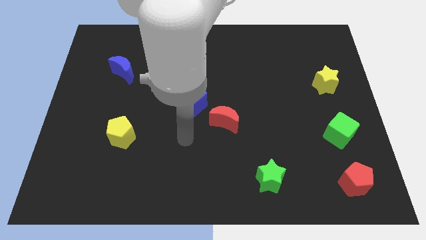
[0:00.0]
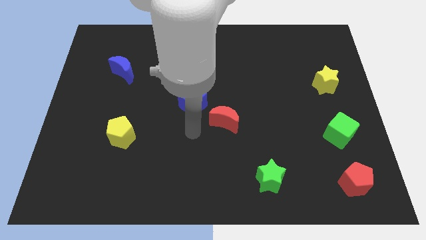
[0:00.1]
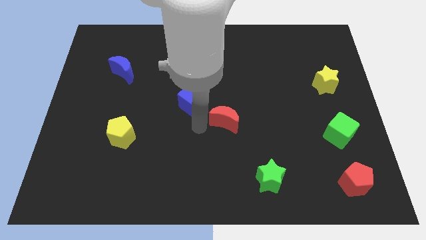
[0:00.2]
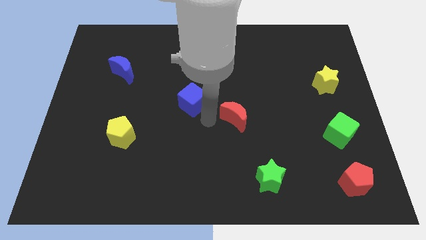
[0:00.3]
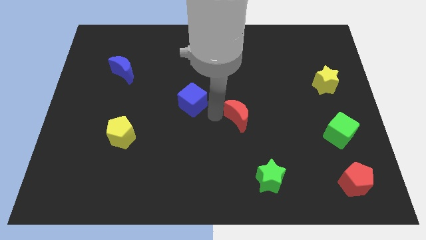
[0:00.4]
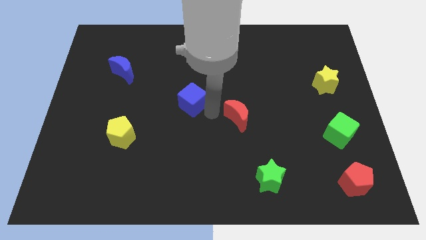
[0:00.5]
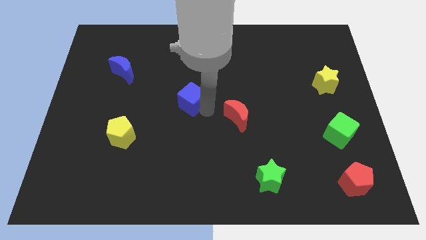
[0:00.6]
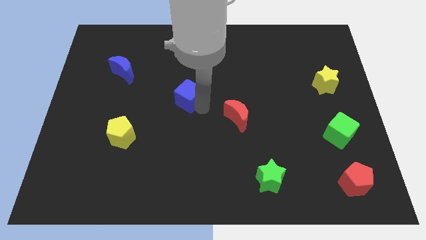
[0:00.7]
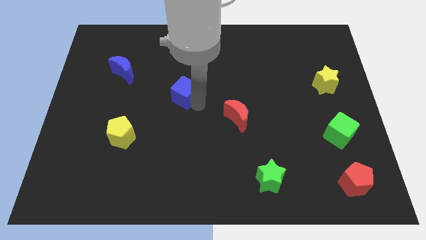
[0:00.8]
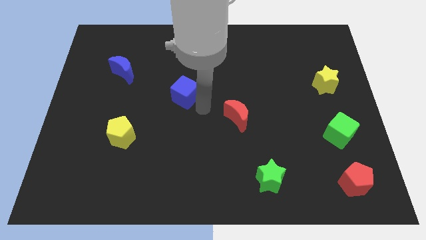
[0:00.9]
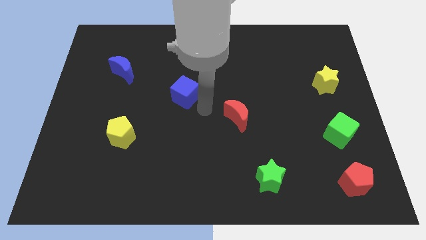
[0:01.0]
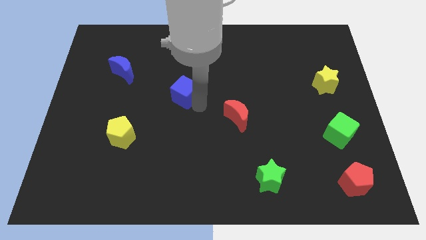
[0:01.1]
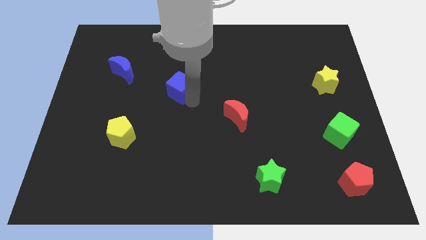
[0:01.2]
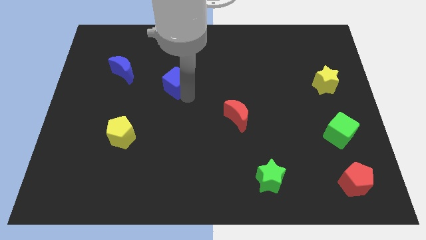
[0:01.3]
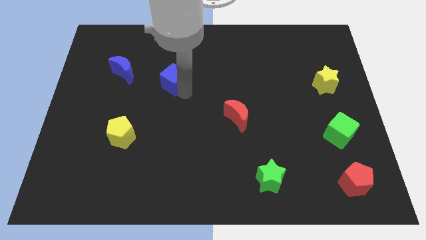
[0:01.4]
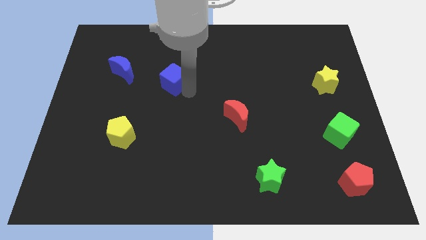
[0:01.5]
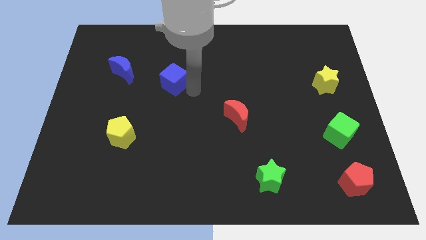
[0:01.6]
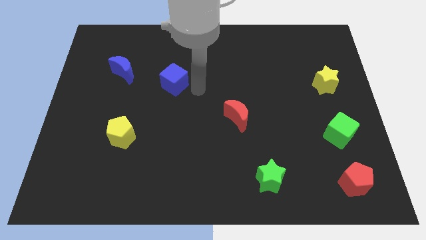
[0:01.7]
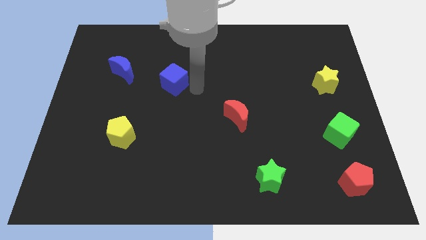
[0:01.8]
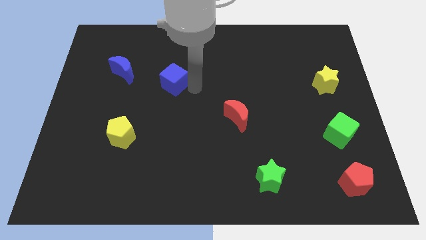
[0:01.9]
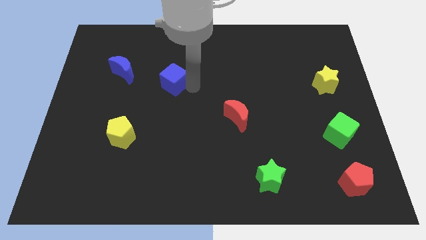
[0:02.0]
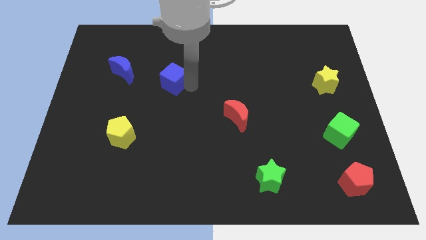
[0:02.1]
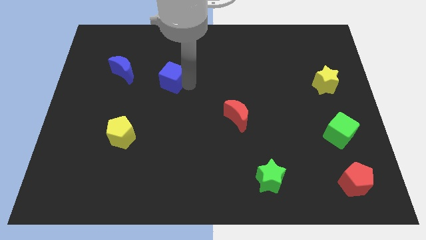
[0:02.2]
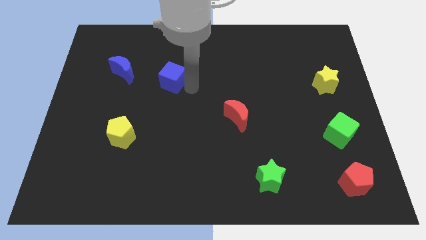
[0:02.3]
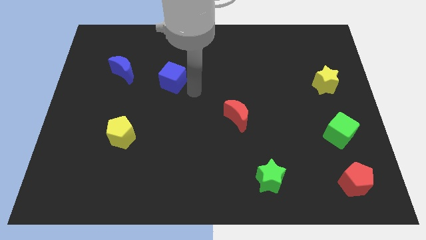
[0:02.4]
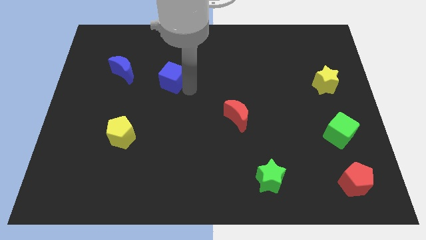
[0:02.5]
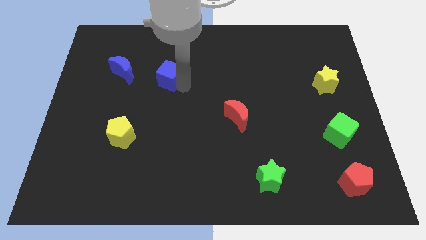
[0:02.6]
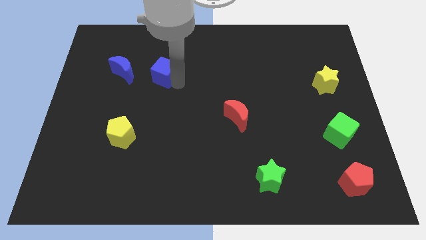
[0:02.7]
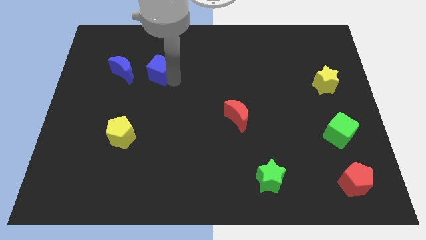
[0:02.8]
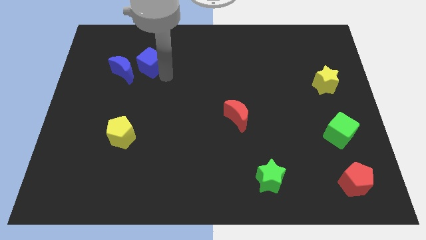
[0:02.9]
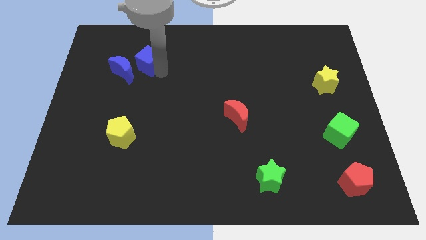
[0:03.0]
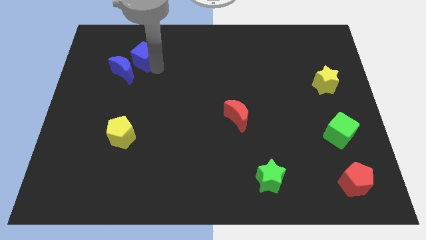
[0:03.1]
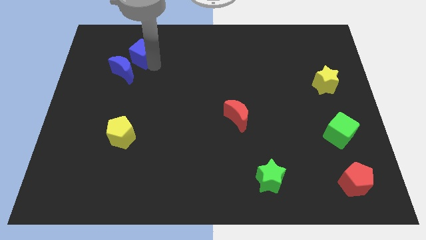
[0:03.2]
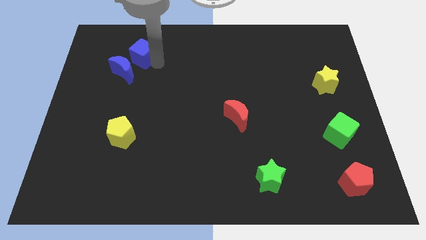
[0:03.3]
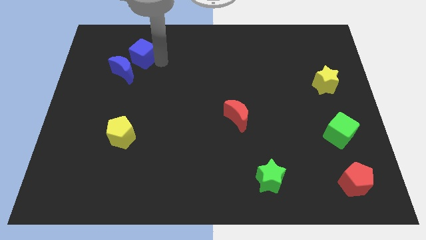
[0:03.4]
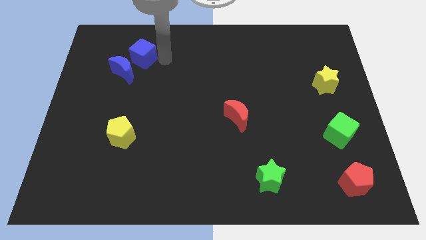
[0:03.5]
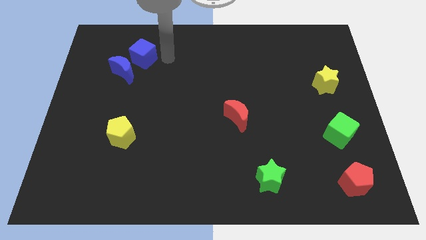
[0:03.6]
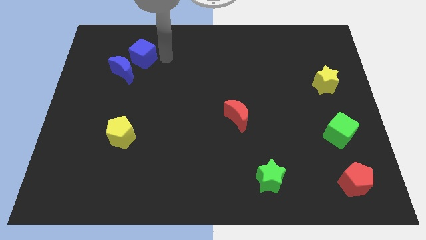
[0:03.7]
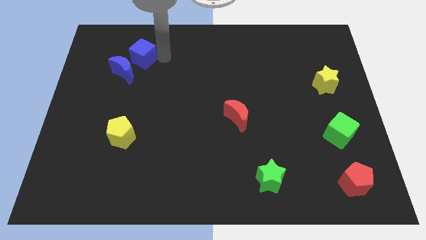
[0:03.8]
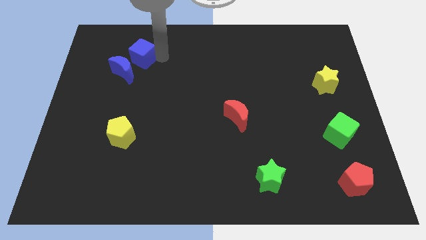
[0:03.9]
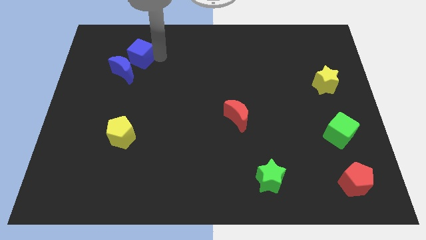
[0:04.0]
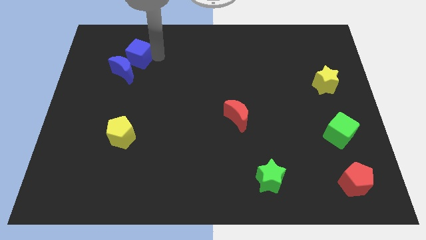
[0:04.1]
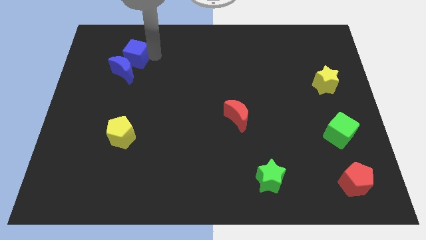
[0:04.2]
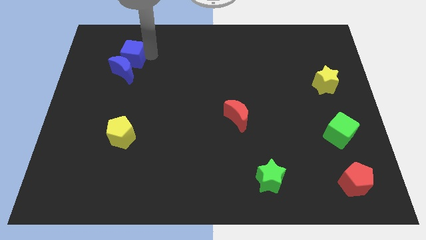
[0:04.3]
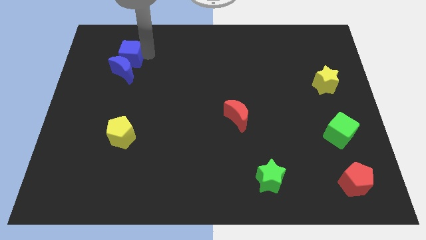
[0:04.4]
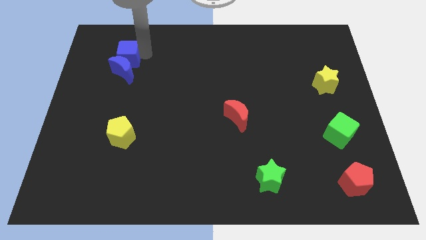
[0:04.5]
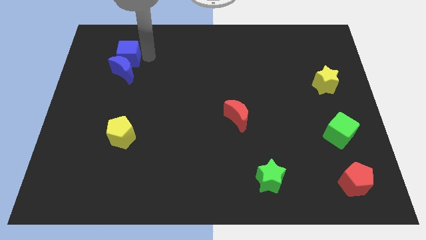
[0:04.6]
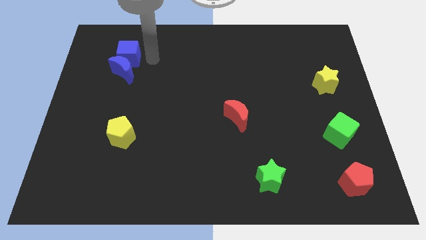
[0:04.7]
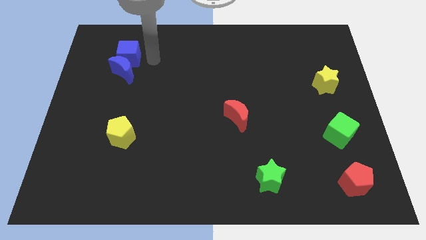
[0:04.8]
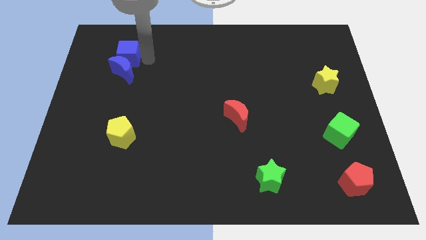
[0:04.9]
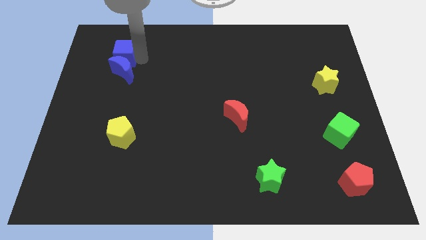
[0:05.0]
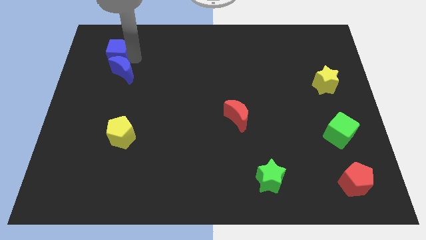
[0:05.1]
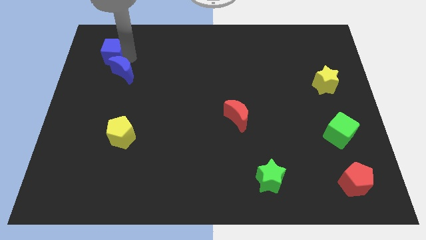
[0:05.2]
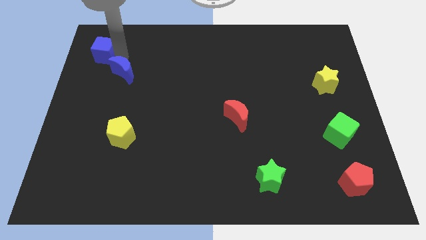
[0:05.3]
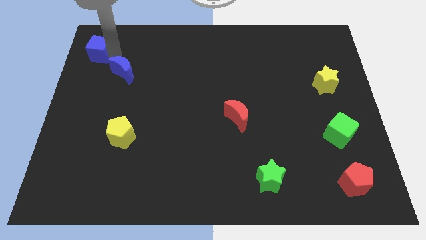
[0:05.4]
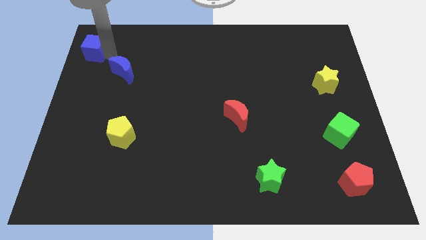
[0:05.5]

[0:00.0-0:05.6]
push the blue cube to the top left of the board

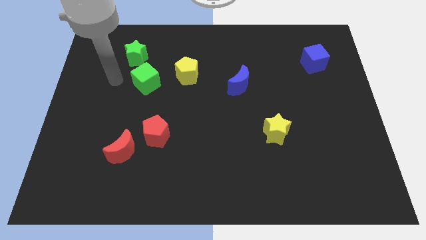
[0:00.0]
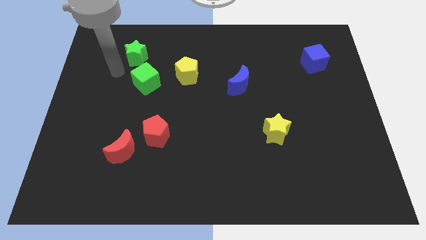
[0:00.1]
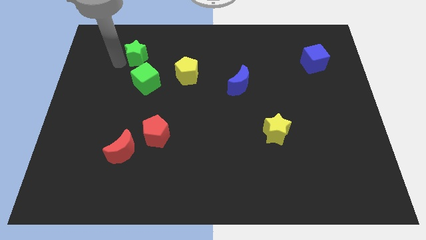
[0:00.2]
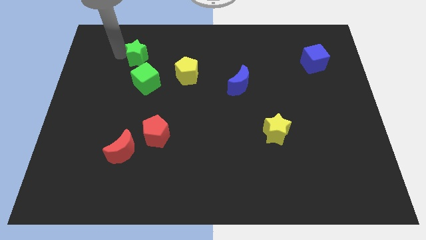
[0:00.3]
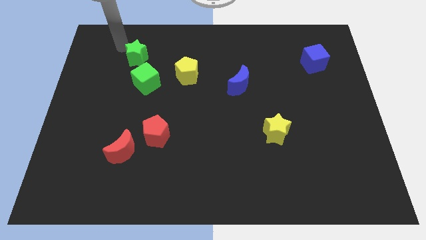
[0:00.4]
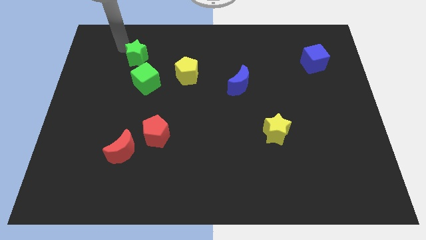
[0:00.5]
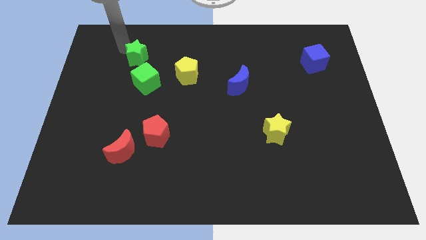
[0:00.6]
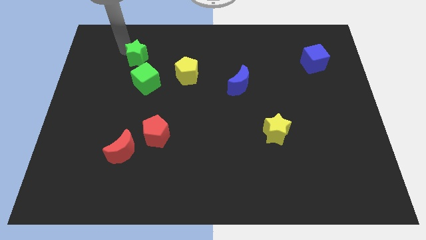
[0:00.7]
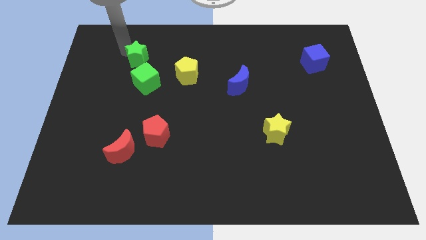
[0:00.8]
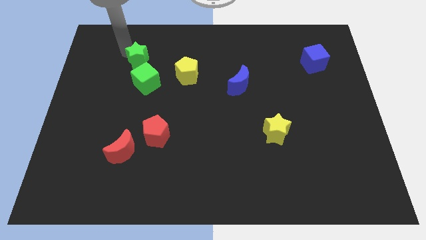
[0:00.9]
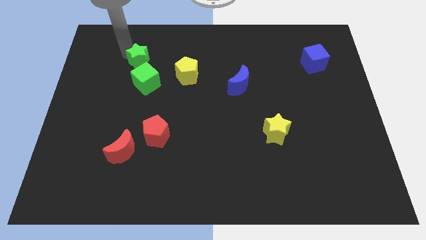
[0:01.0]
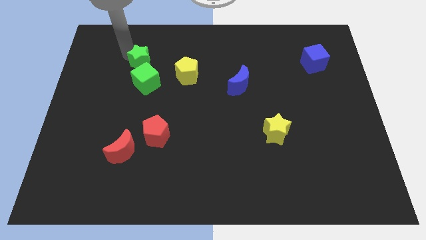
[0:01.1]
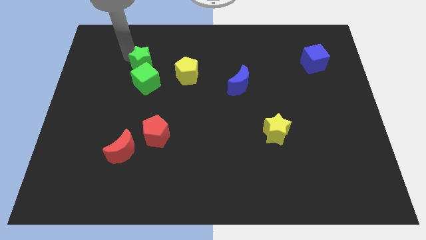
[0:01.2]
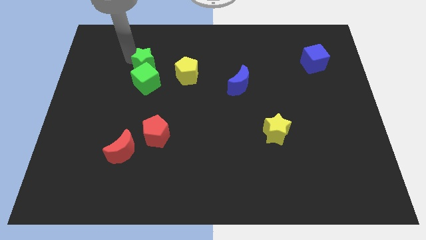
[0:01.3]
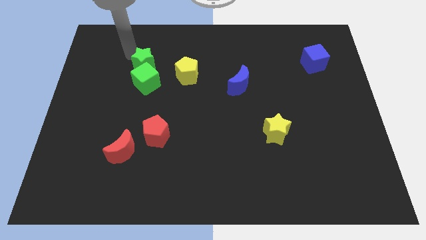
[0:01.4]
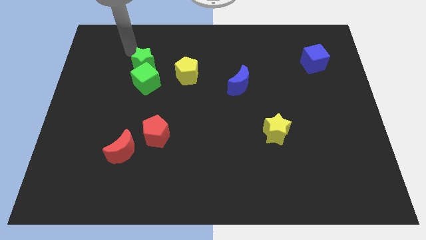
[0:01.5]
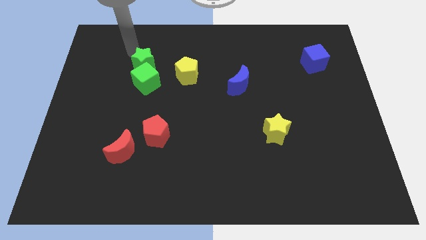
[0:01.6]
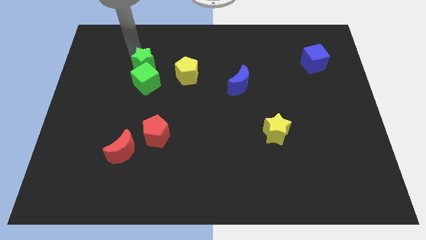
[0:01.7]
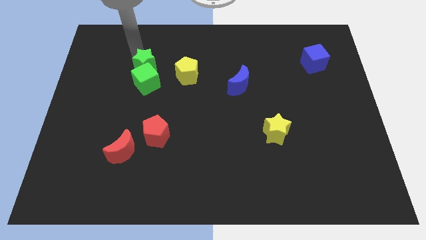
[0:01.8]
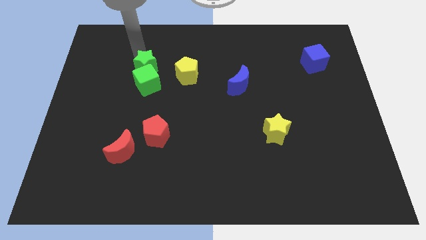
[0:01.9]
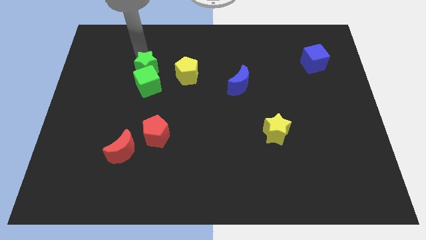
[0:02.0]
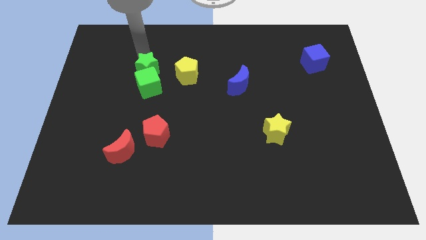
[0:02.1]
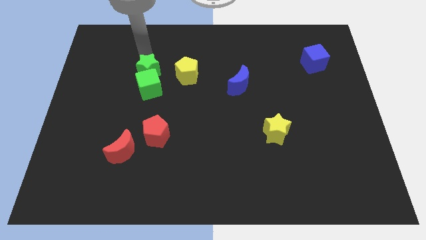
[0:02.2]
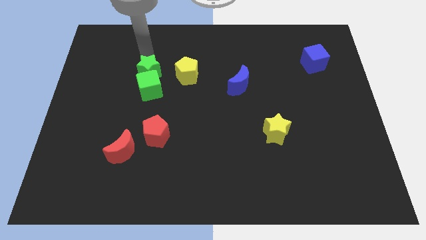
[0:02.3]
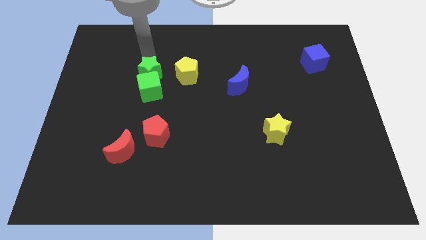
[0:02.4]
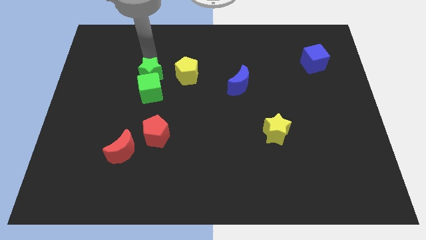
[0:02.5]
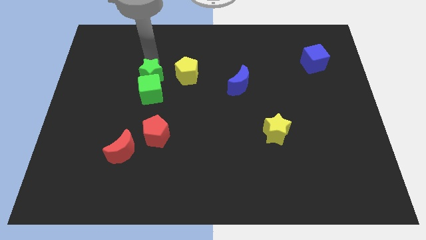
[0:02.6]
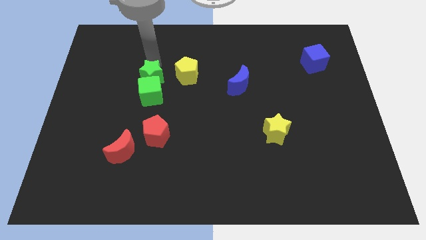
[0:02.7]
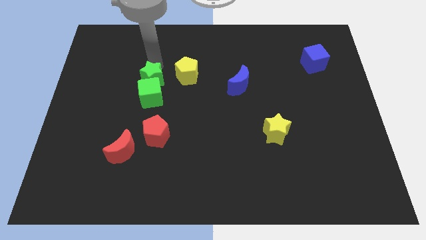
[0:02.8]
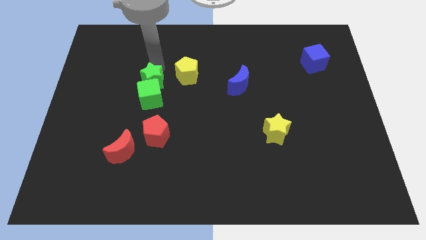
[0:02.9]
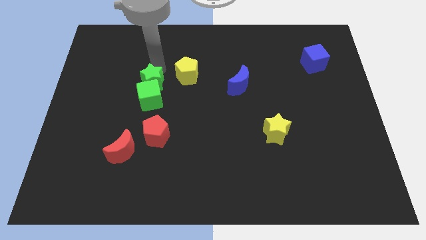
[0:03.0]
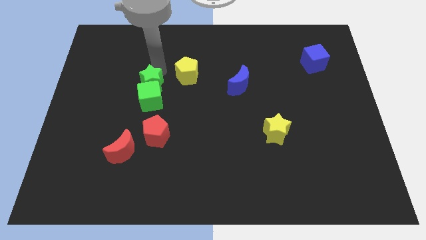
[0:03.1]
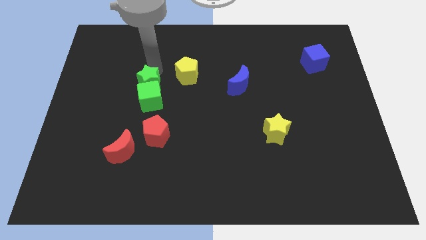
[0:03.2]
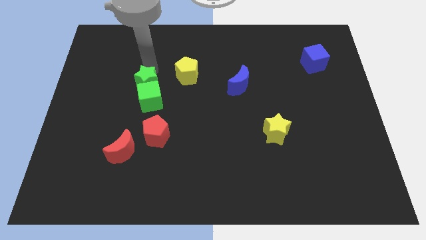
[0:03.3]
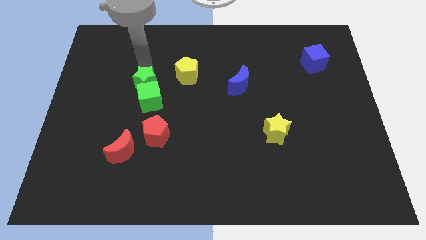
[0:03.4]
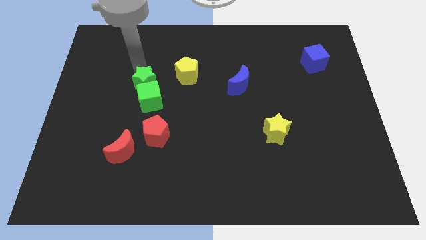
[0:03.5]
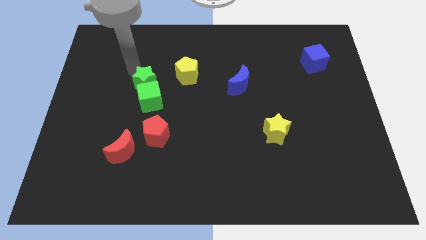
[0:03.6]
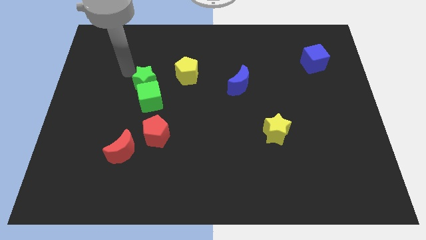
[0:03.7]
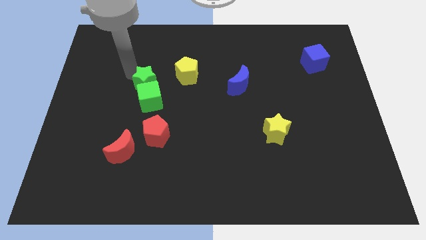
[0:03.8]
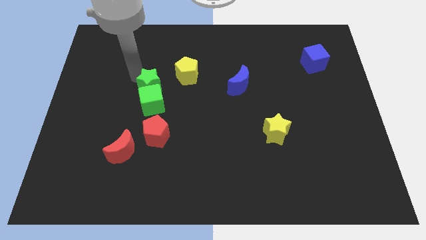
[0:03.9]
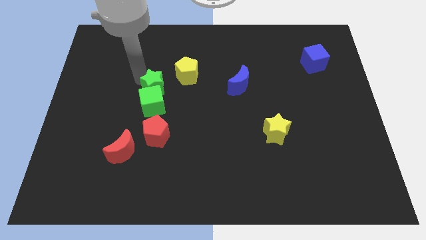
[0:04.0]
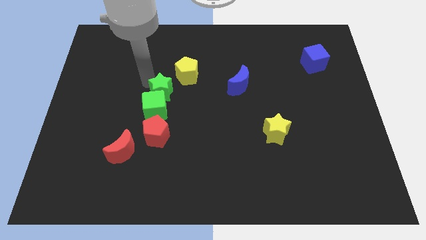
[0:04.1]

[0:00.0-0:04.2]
move the green star to the center
